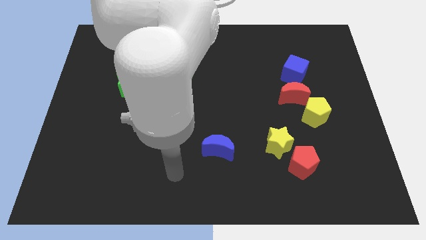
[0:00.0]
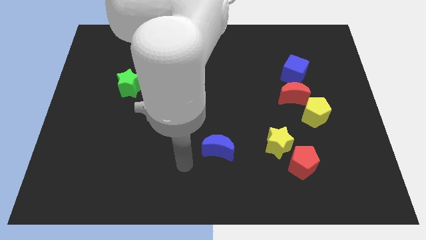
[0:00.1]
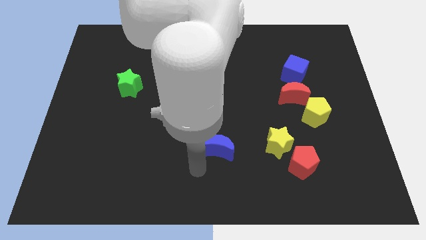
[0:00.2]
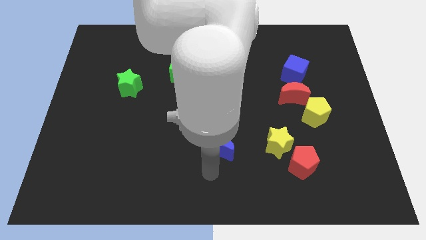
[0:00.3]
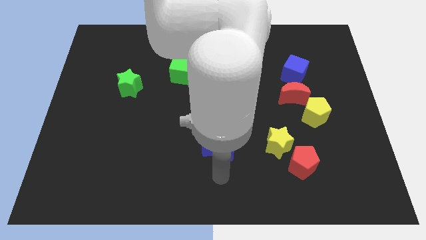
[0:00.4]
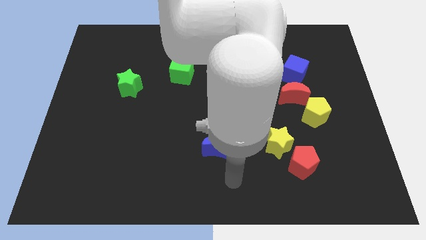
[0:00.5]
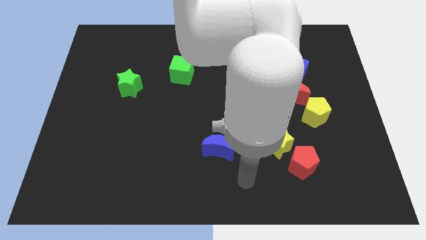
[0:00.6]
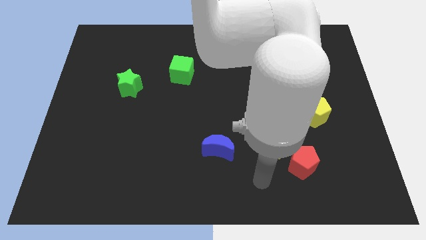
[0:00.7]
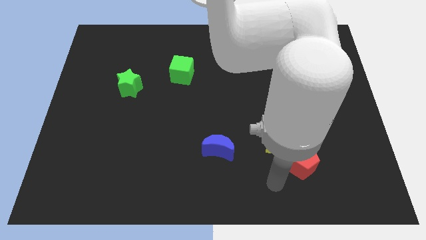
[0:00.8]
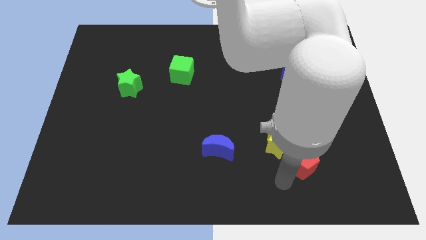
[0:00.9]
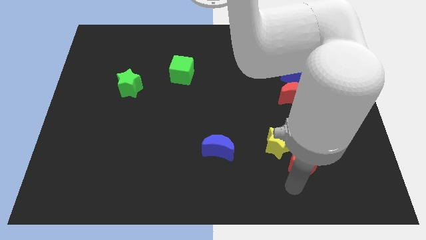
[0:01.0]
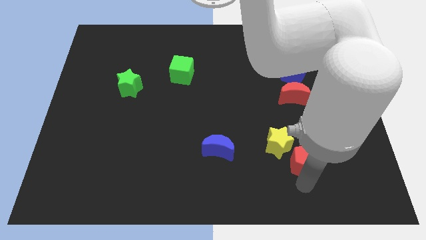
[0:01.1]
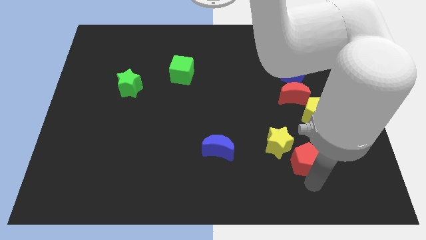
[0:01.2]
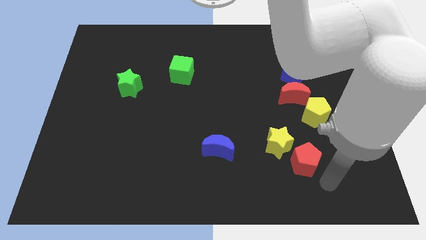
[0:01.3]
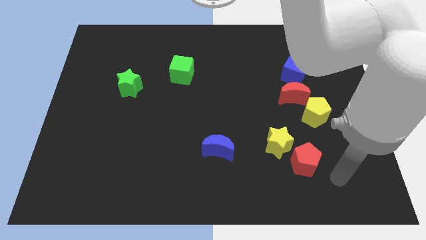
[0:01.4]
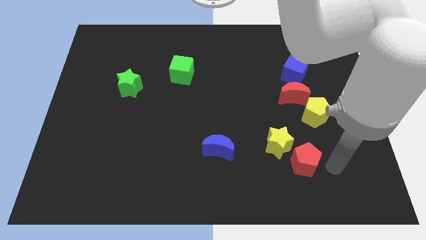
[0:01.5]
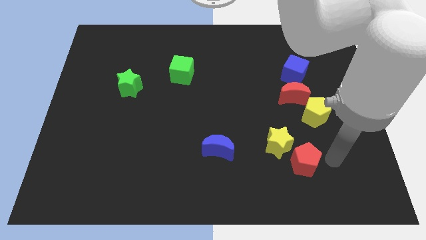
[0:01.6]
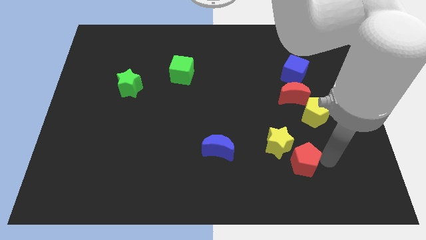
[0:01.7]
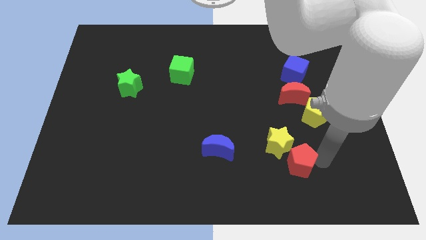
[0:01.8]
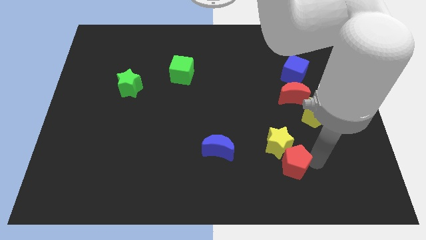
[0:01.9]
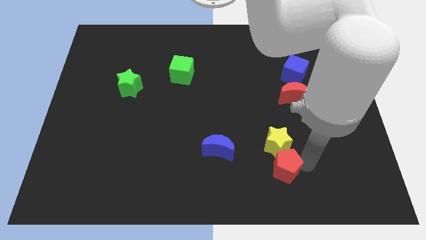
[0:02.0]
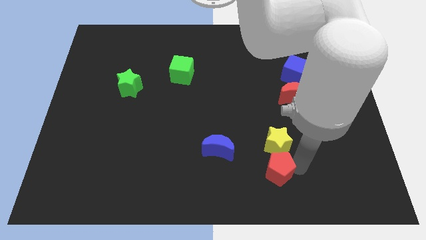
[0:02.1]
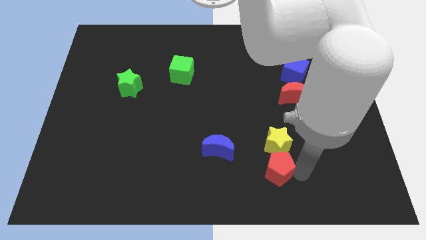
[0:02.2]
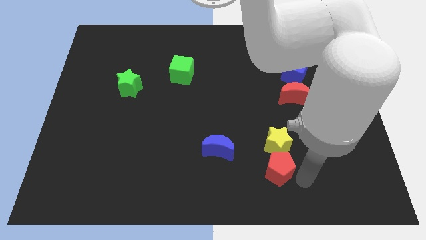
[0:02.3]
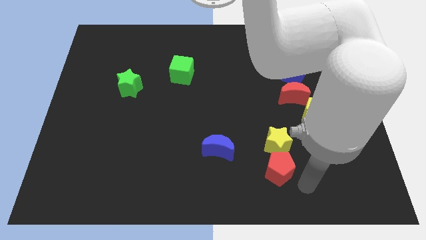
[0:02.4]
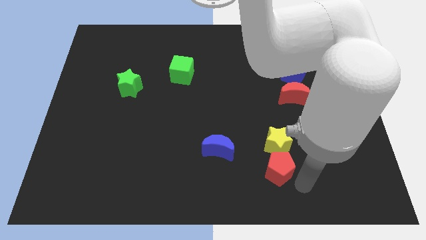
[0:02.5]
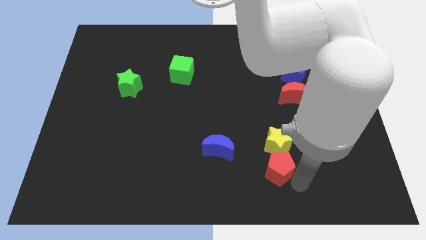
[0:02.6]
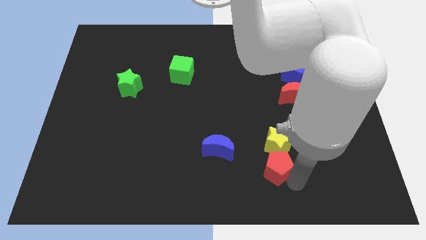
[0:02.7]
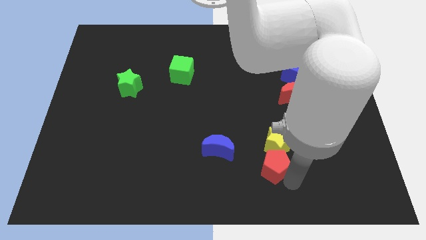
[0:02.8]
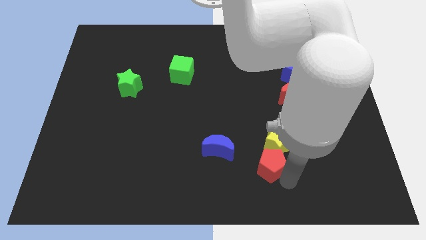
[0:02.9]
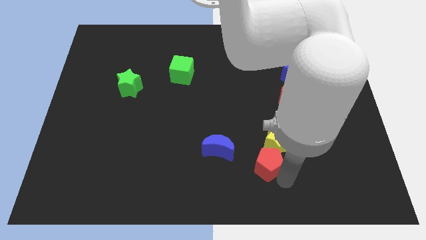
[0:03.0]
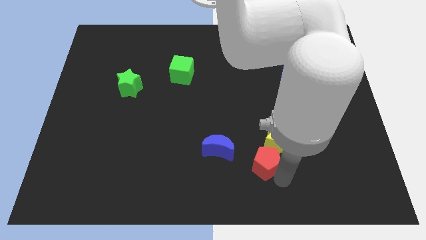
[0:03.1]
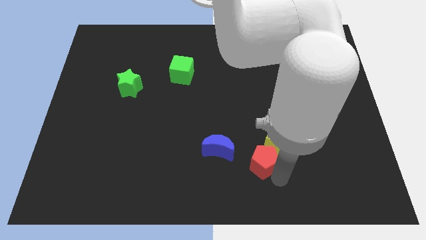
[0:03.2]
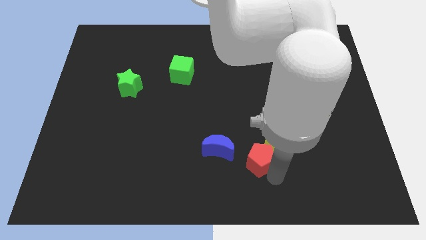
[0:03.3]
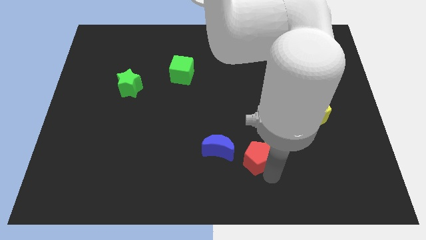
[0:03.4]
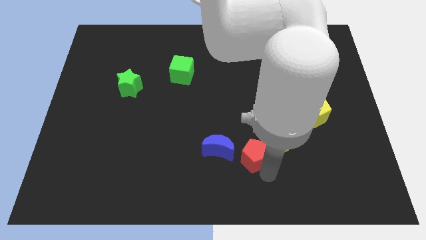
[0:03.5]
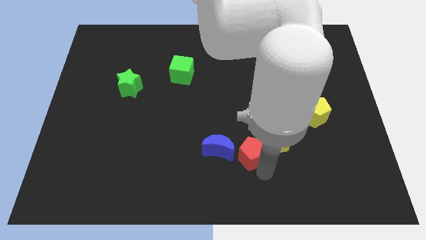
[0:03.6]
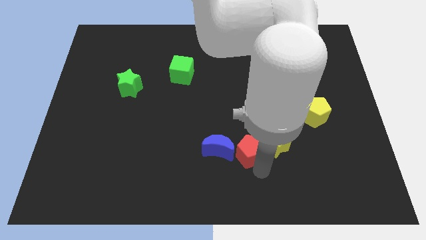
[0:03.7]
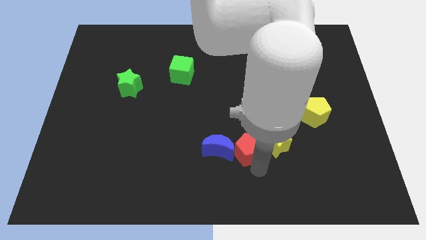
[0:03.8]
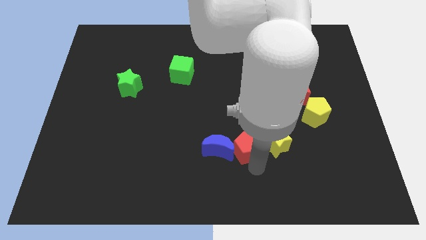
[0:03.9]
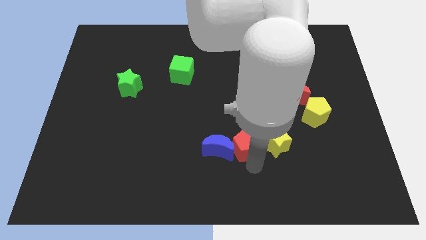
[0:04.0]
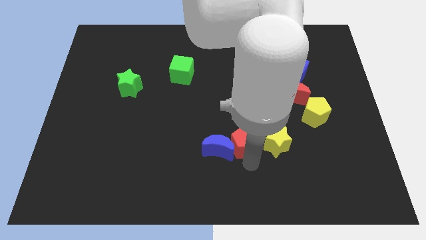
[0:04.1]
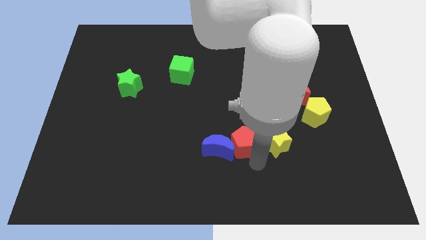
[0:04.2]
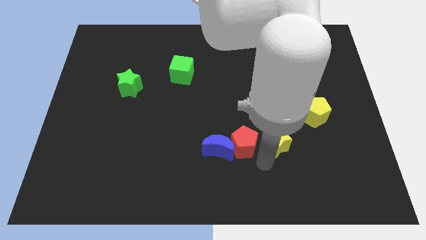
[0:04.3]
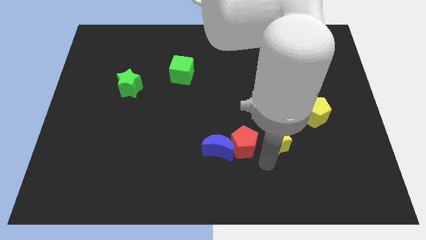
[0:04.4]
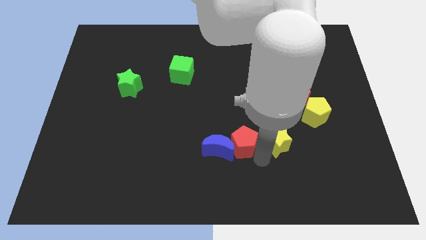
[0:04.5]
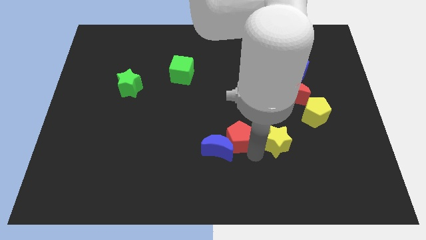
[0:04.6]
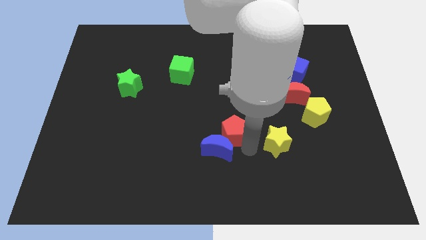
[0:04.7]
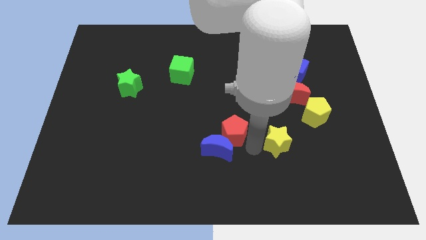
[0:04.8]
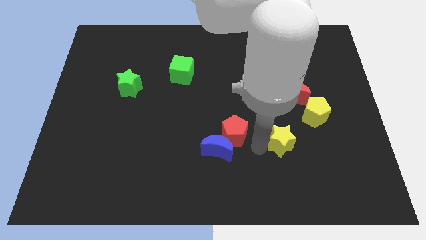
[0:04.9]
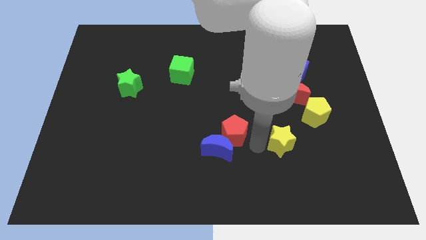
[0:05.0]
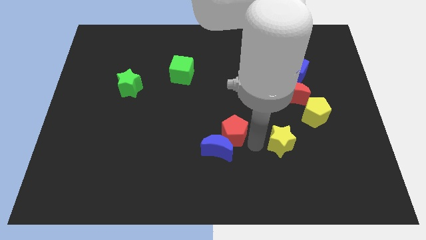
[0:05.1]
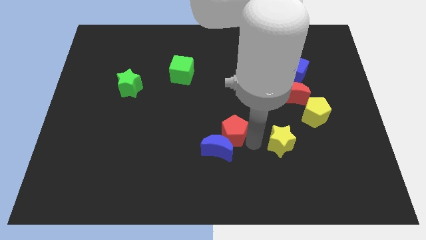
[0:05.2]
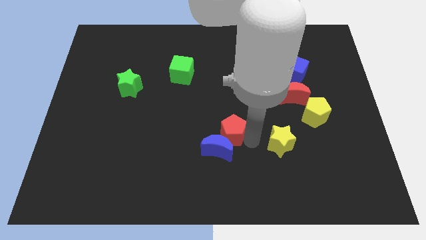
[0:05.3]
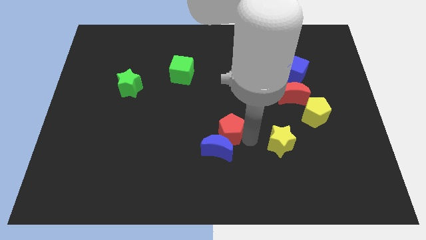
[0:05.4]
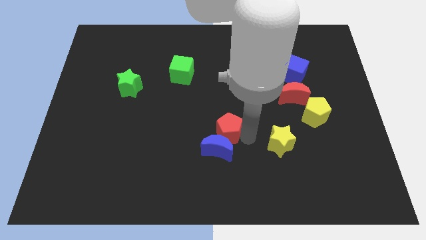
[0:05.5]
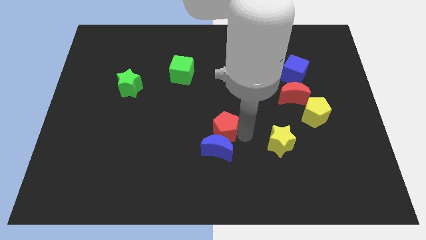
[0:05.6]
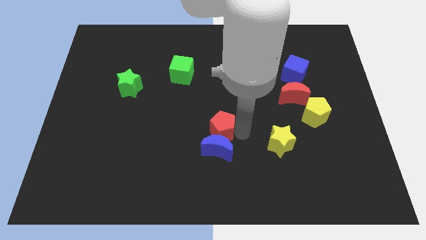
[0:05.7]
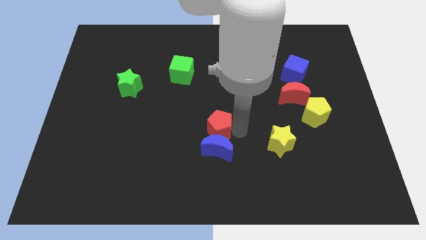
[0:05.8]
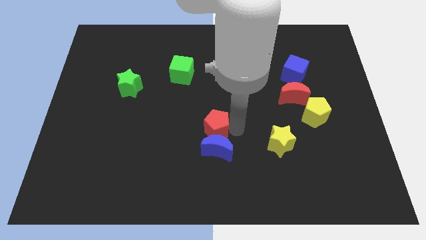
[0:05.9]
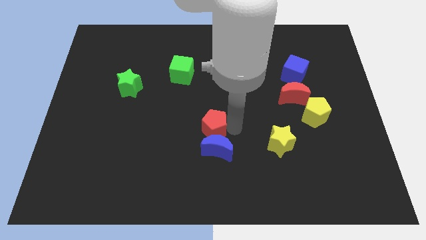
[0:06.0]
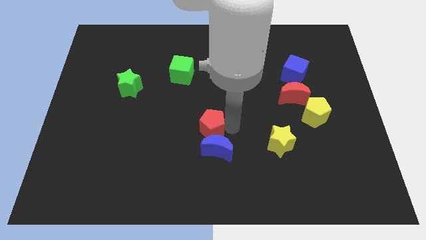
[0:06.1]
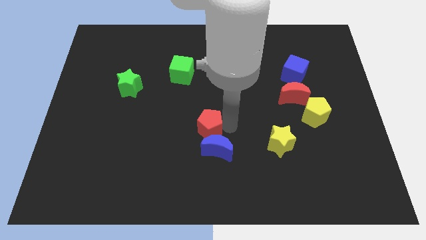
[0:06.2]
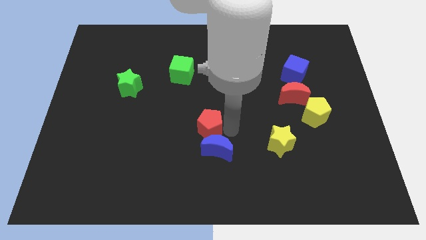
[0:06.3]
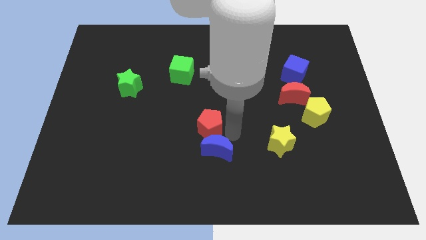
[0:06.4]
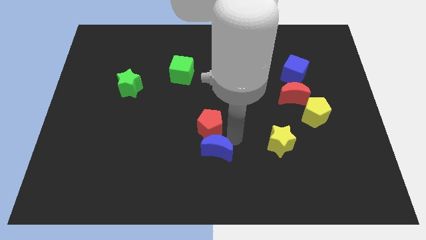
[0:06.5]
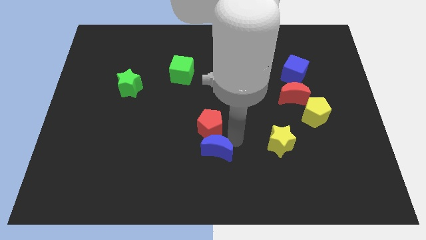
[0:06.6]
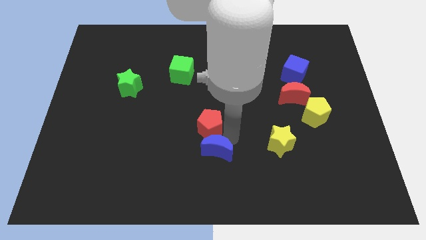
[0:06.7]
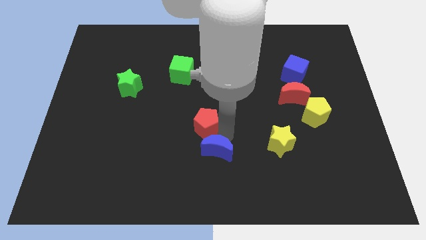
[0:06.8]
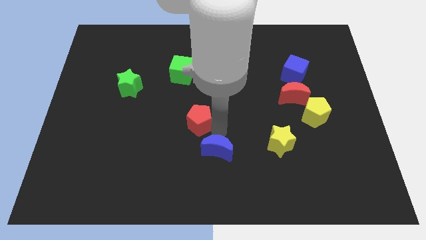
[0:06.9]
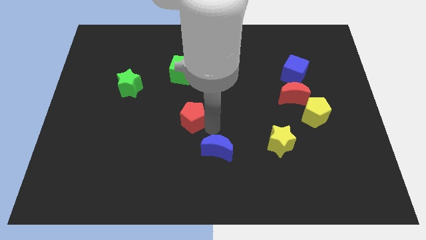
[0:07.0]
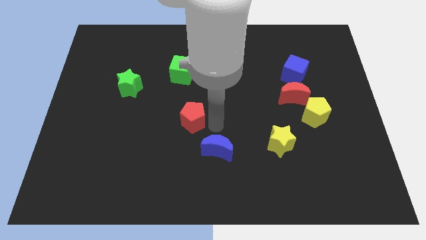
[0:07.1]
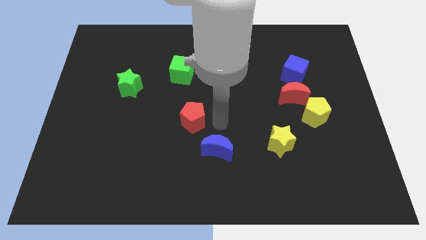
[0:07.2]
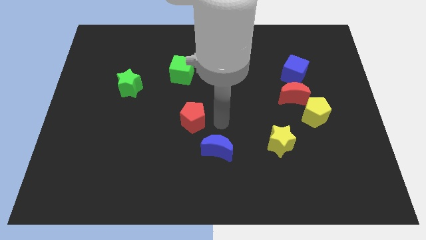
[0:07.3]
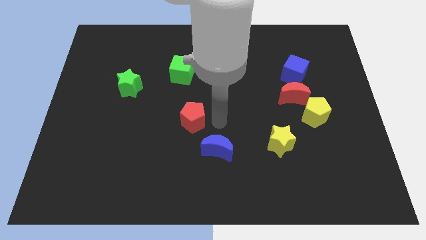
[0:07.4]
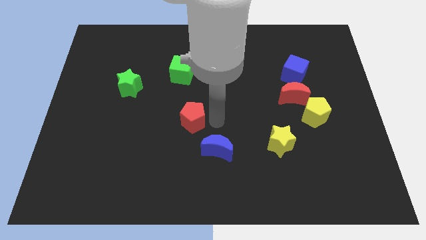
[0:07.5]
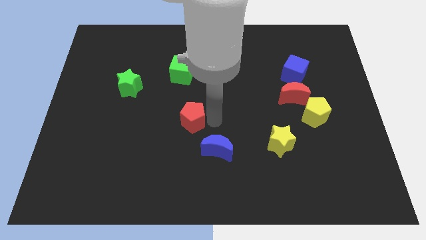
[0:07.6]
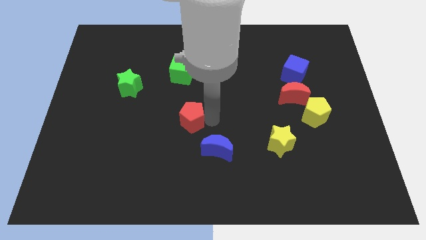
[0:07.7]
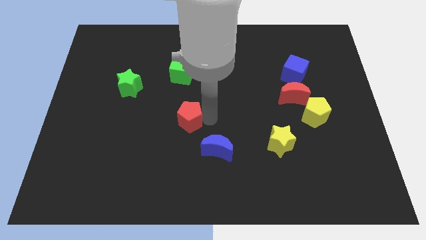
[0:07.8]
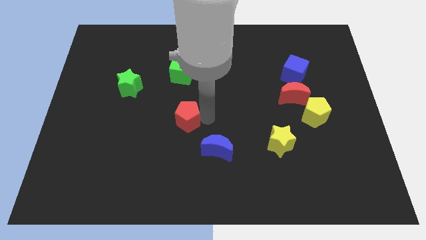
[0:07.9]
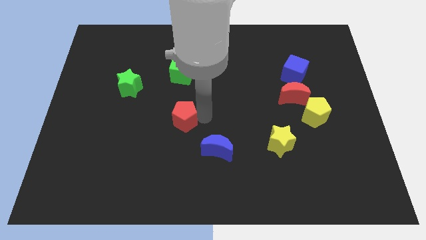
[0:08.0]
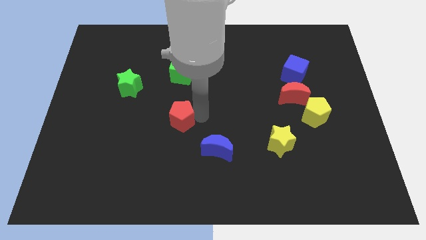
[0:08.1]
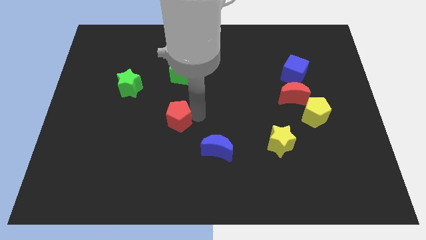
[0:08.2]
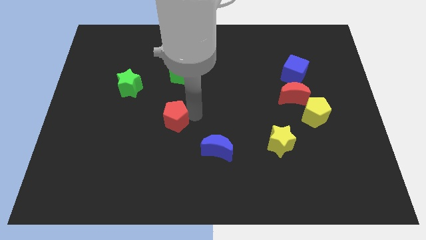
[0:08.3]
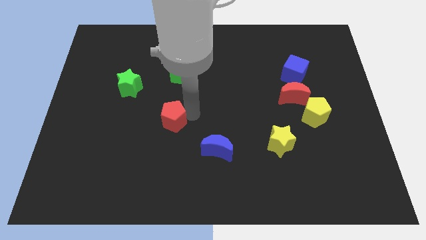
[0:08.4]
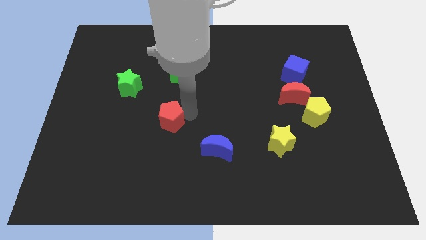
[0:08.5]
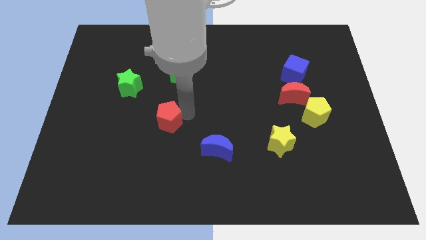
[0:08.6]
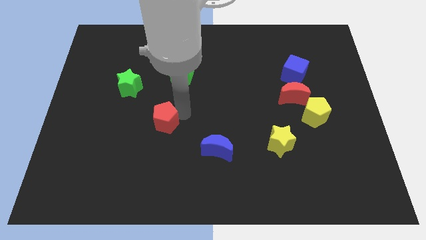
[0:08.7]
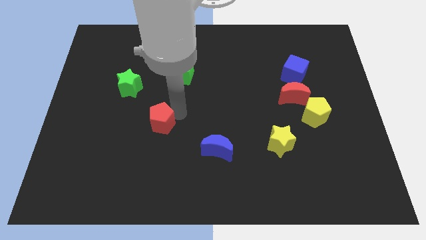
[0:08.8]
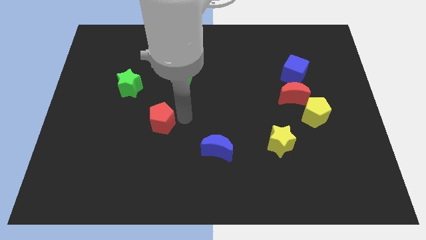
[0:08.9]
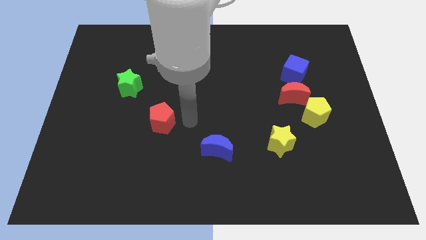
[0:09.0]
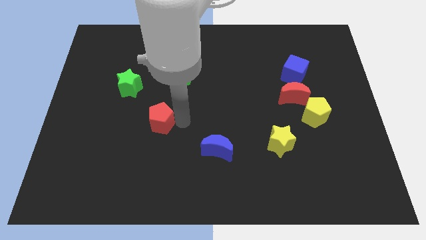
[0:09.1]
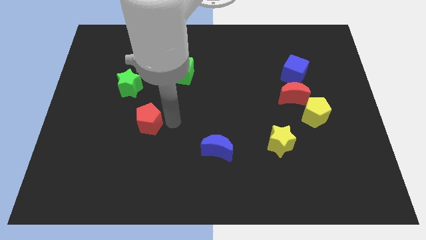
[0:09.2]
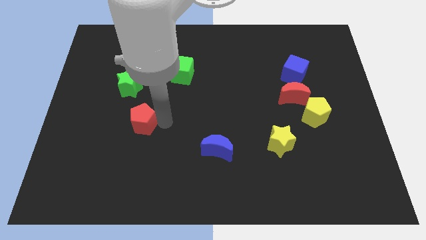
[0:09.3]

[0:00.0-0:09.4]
slide the red pentagon to the bottom side of the green star
